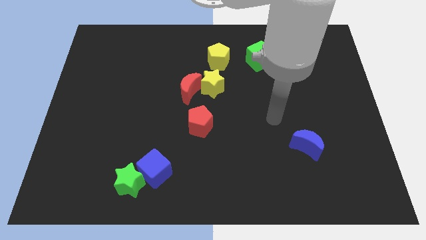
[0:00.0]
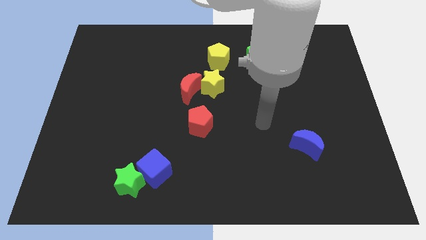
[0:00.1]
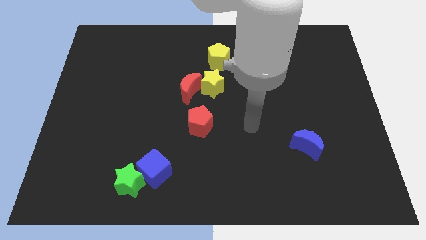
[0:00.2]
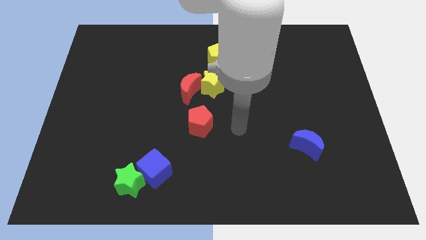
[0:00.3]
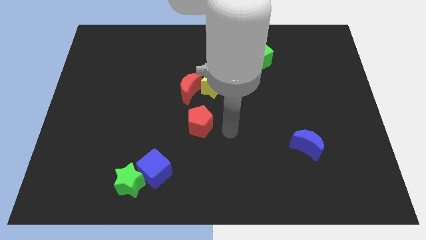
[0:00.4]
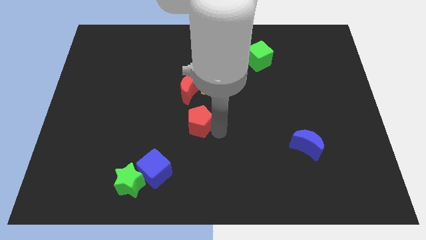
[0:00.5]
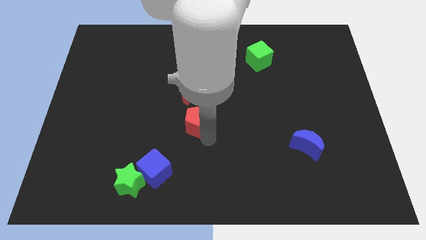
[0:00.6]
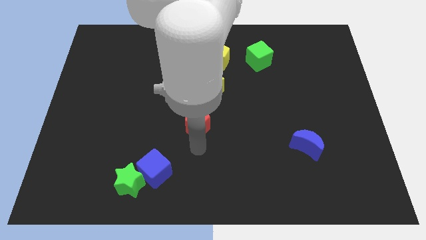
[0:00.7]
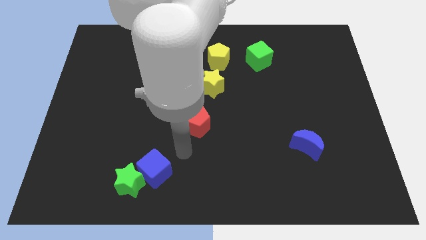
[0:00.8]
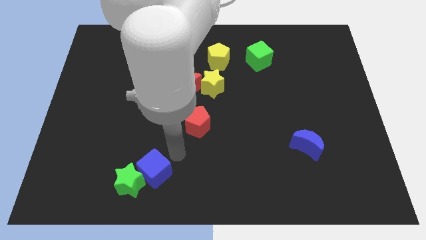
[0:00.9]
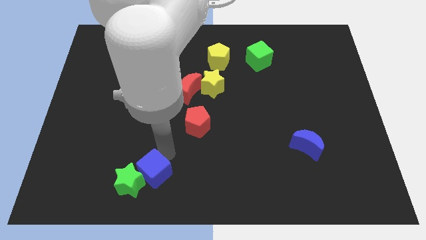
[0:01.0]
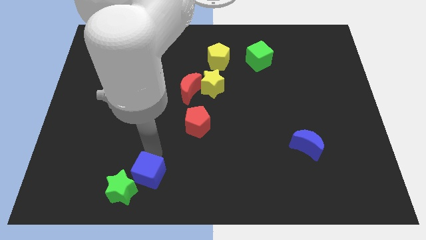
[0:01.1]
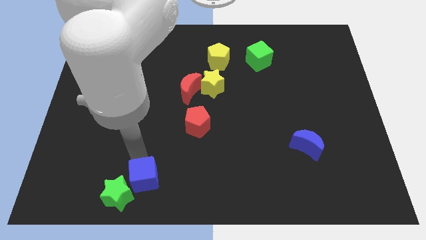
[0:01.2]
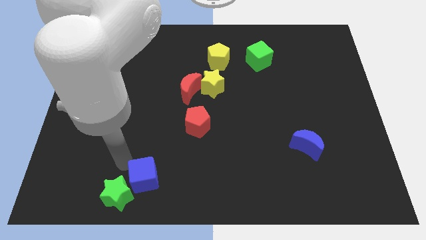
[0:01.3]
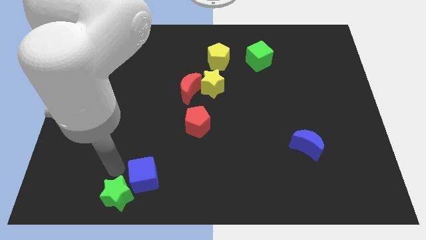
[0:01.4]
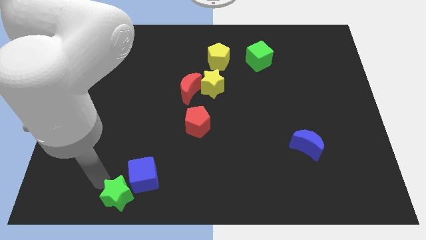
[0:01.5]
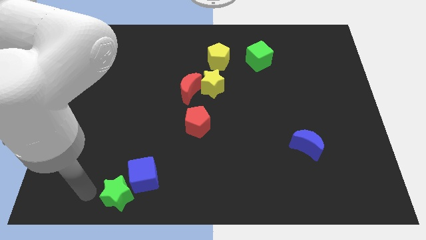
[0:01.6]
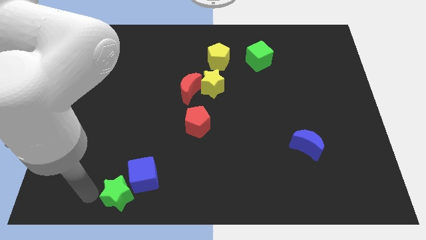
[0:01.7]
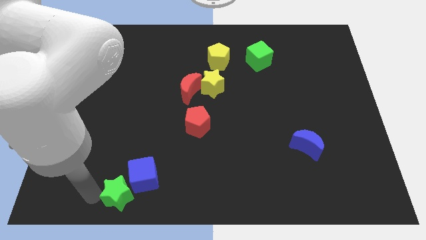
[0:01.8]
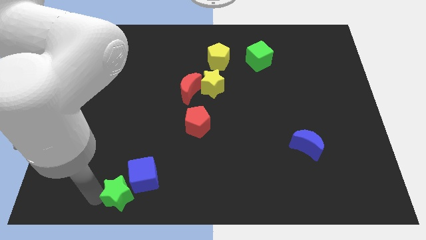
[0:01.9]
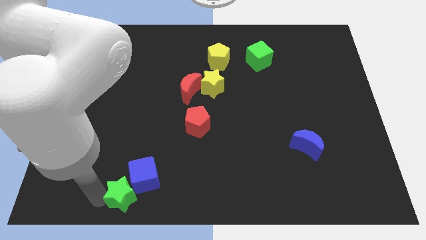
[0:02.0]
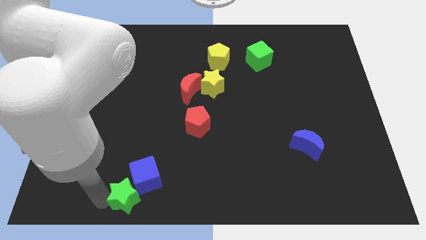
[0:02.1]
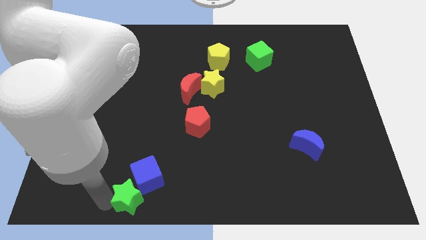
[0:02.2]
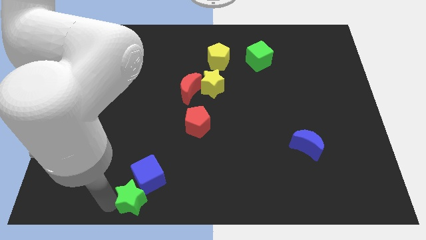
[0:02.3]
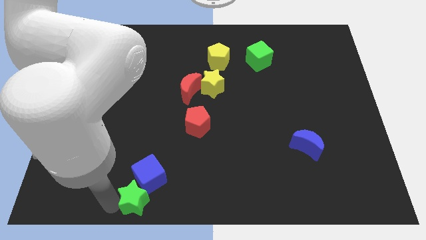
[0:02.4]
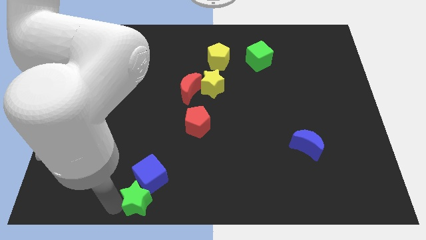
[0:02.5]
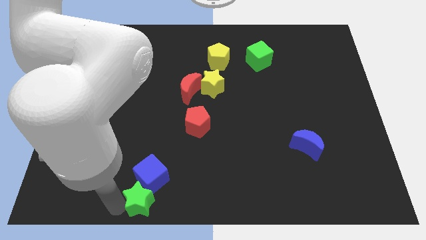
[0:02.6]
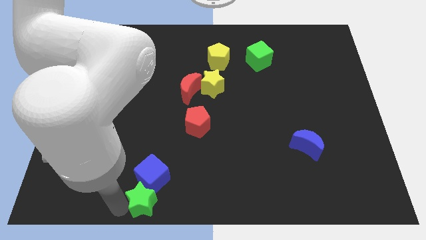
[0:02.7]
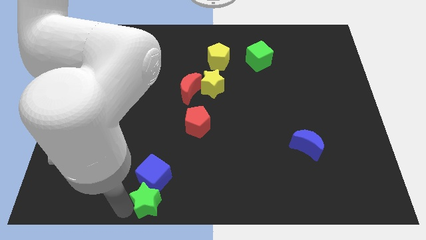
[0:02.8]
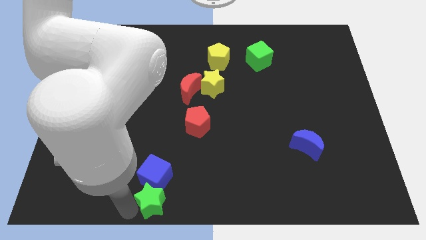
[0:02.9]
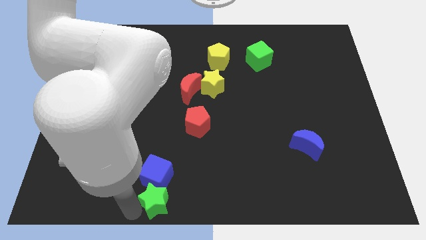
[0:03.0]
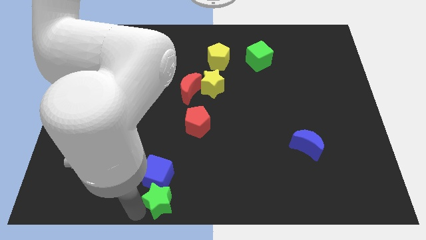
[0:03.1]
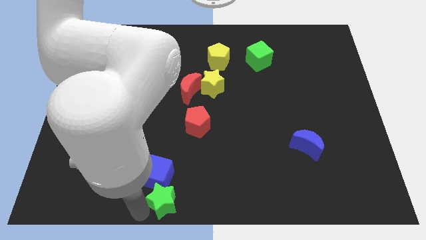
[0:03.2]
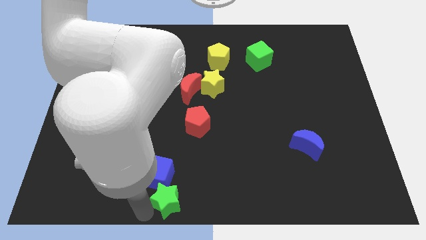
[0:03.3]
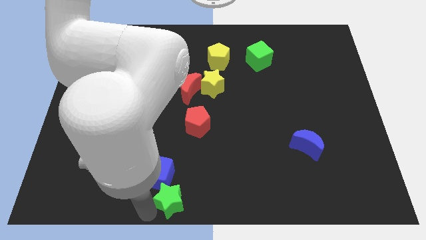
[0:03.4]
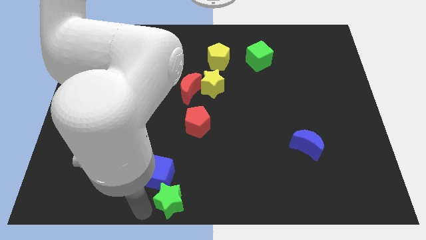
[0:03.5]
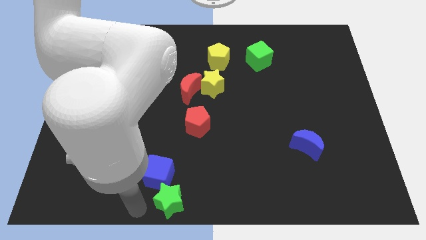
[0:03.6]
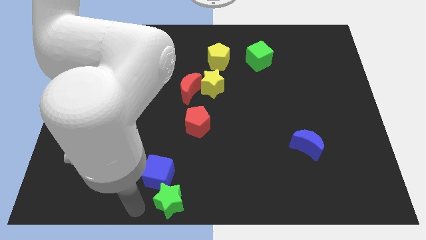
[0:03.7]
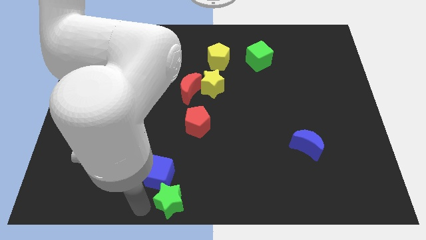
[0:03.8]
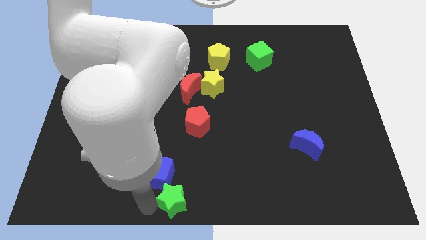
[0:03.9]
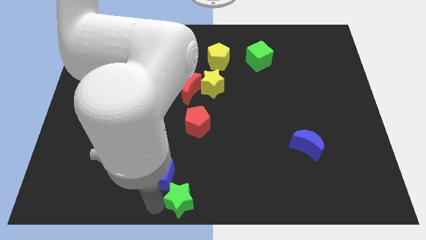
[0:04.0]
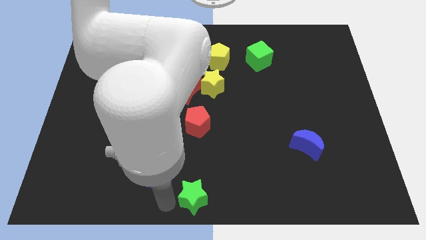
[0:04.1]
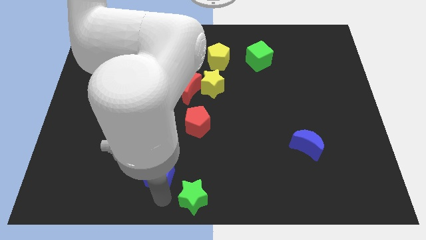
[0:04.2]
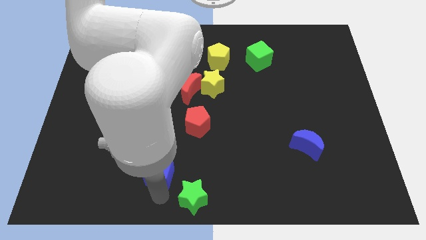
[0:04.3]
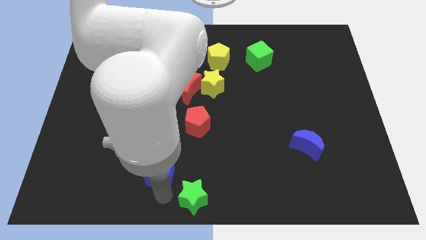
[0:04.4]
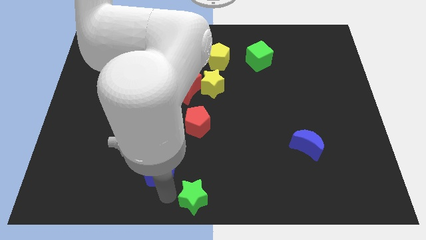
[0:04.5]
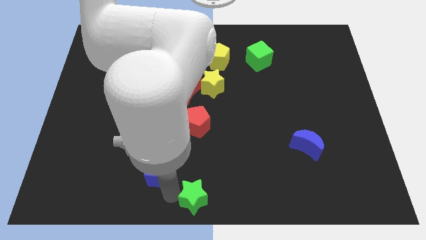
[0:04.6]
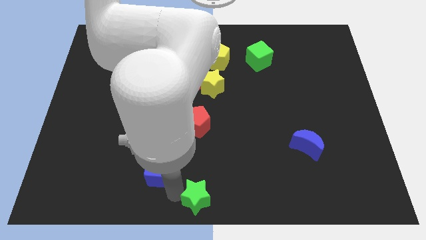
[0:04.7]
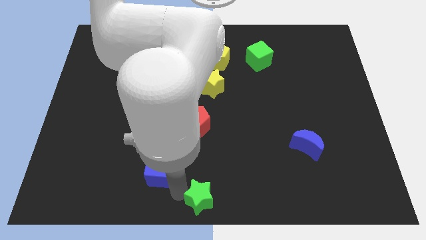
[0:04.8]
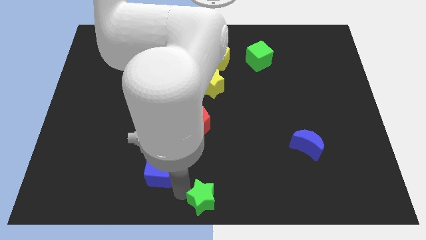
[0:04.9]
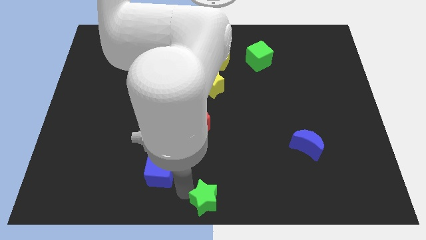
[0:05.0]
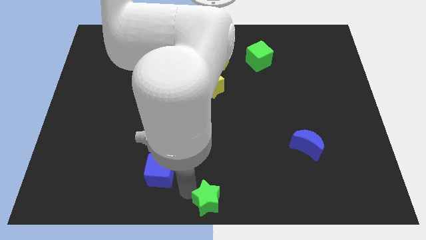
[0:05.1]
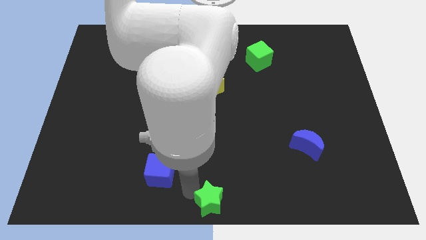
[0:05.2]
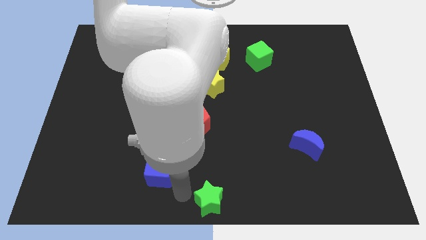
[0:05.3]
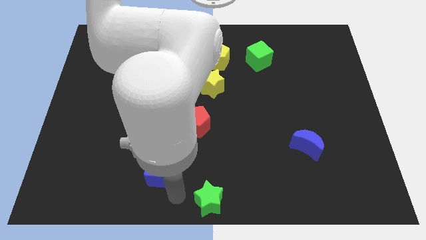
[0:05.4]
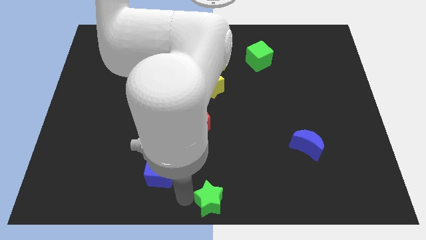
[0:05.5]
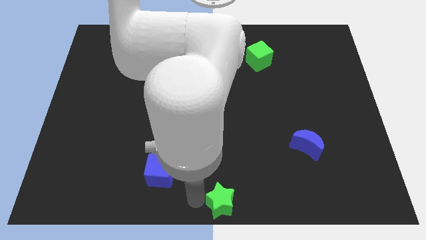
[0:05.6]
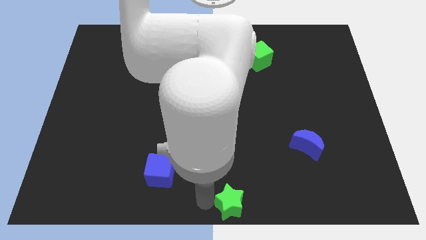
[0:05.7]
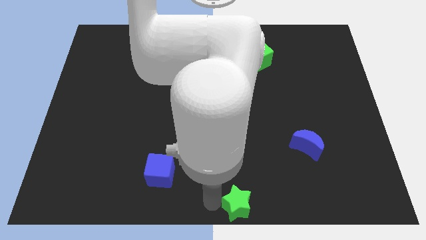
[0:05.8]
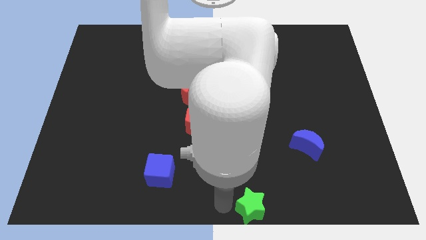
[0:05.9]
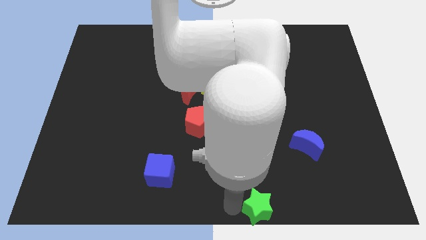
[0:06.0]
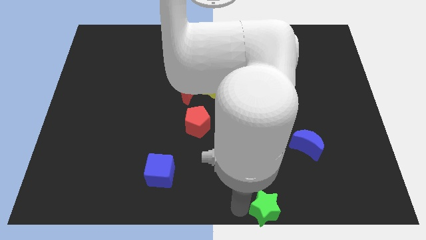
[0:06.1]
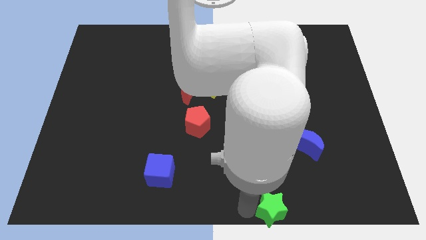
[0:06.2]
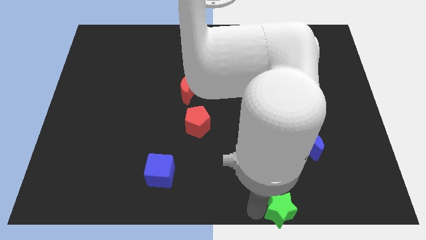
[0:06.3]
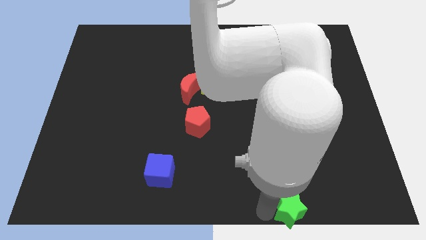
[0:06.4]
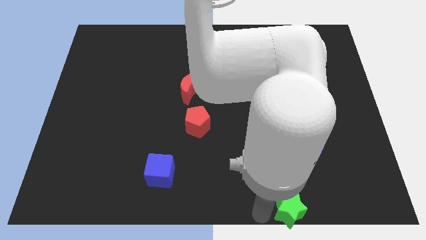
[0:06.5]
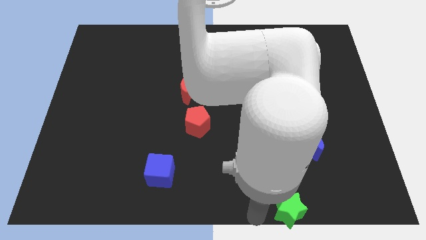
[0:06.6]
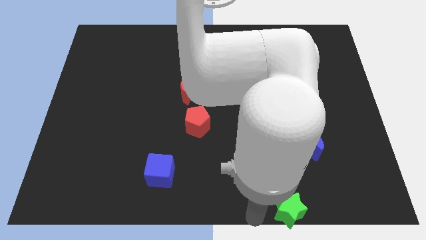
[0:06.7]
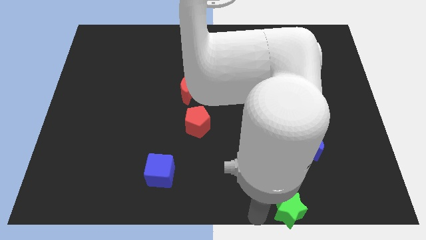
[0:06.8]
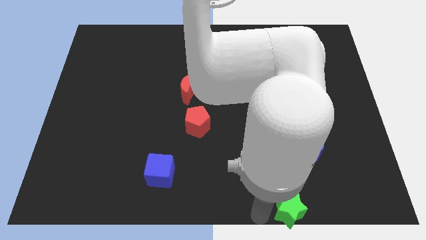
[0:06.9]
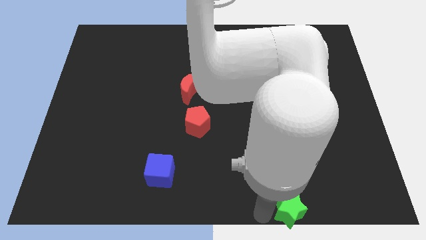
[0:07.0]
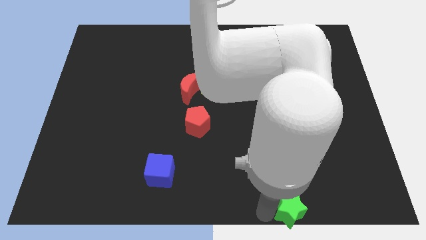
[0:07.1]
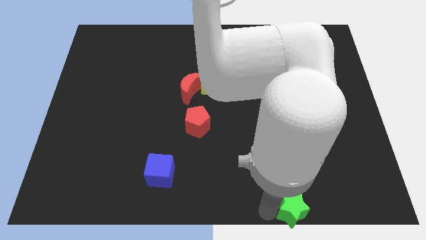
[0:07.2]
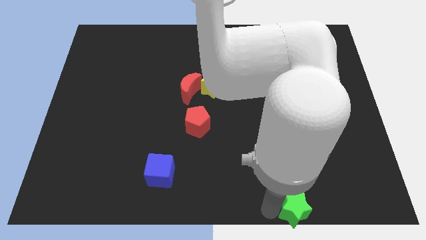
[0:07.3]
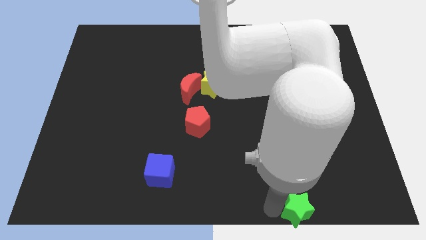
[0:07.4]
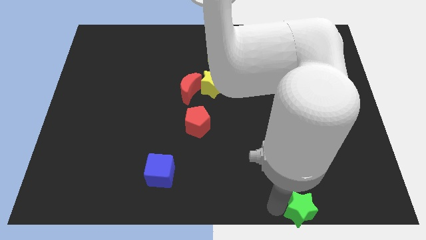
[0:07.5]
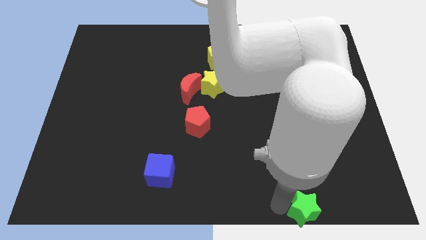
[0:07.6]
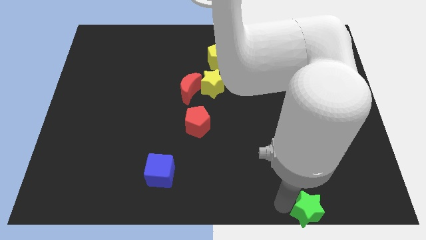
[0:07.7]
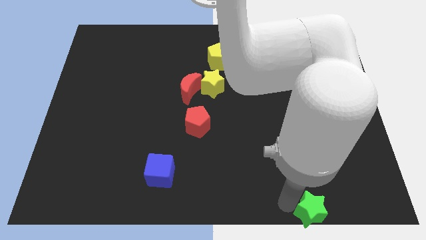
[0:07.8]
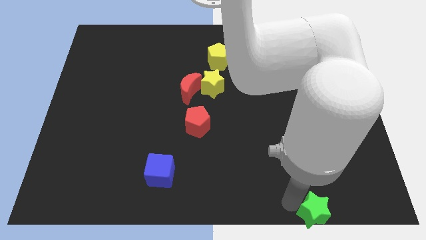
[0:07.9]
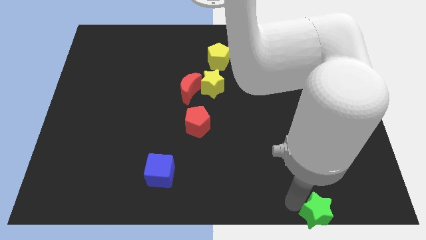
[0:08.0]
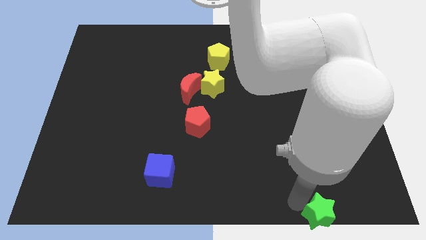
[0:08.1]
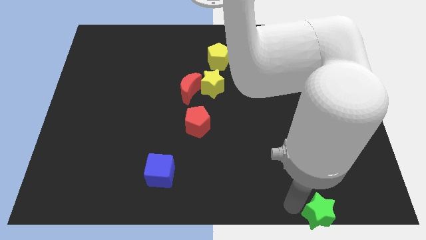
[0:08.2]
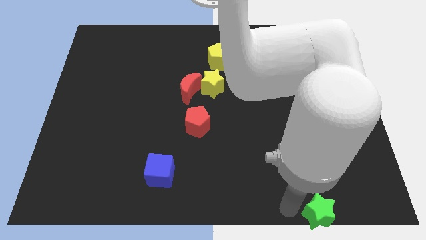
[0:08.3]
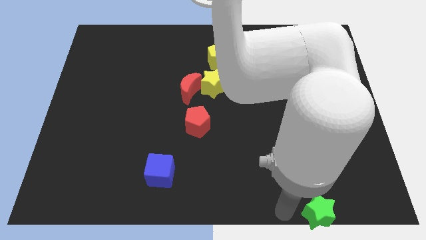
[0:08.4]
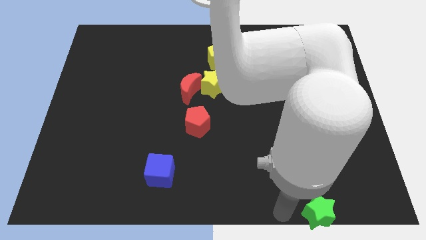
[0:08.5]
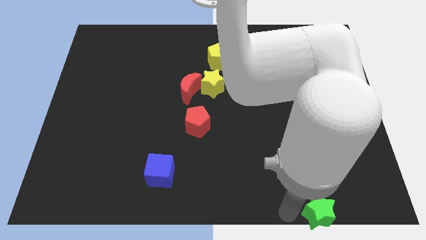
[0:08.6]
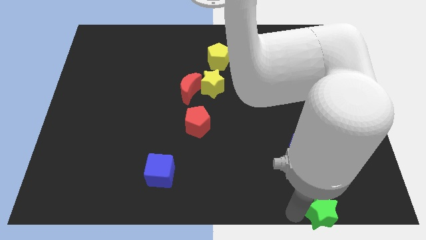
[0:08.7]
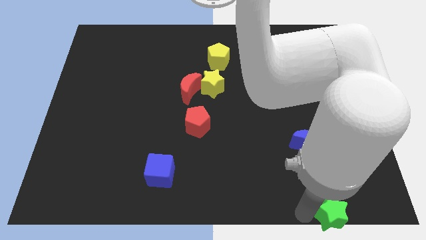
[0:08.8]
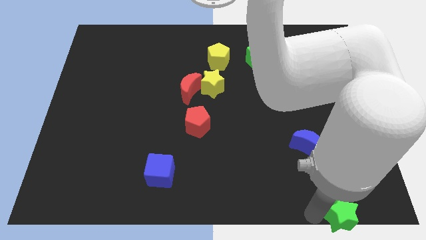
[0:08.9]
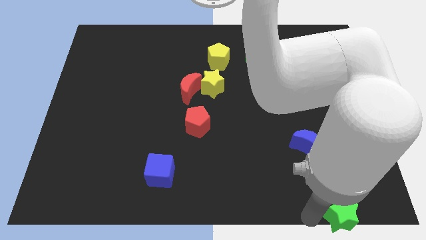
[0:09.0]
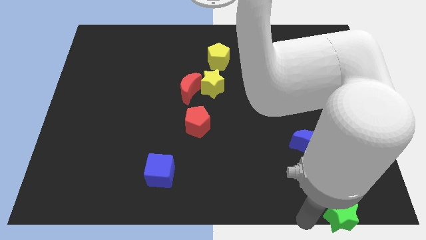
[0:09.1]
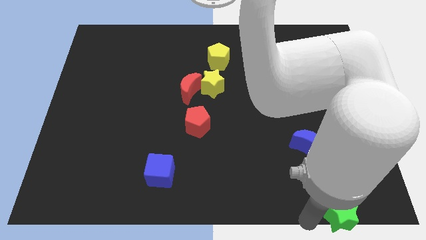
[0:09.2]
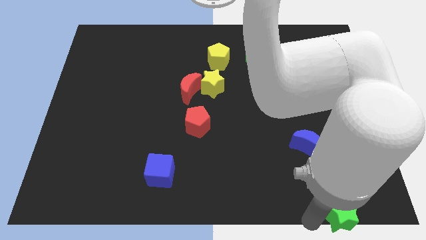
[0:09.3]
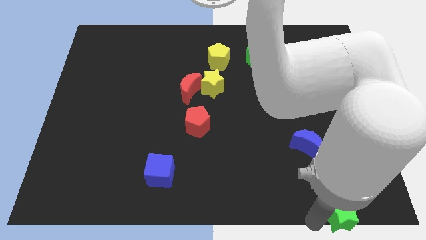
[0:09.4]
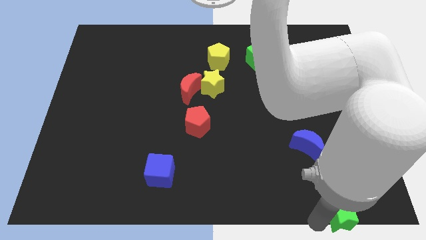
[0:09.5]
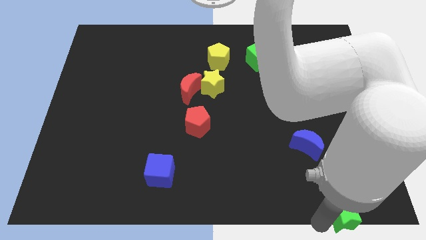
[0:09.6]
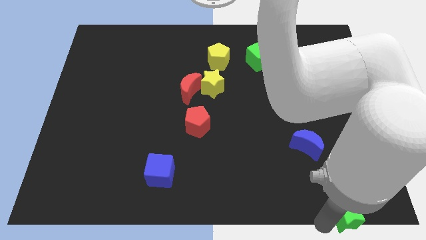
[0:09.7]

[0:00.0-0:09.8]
push the green star to the bottom right corner
